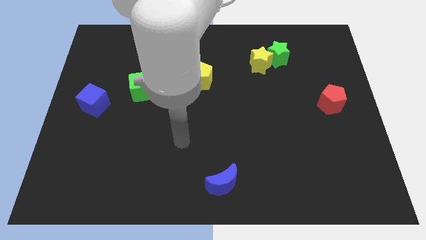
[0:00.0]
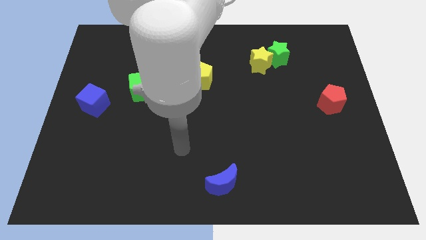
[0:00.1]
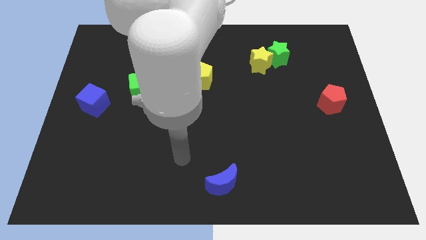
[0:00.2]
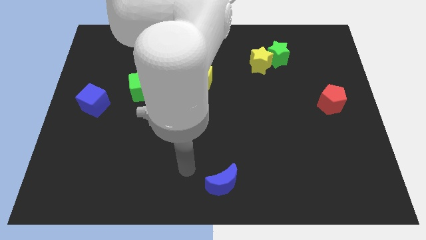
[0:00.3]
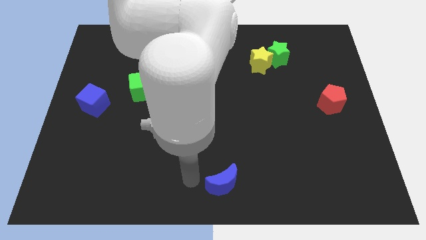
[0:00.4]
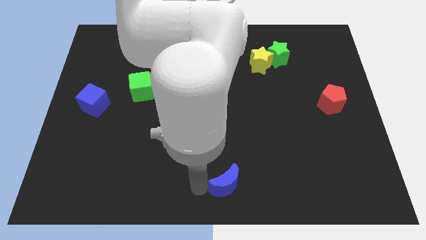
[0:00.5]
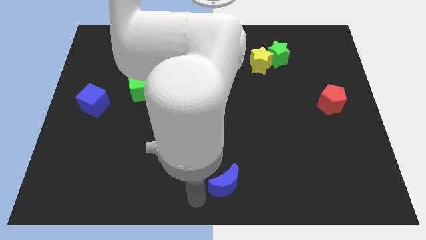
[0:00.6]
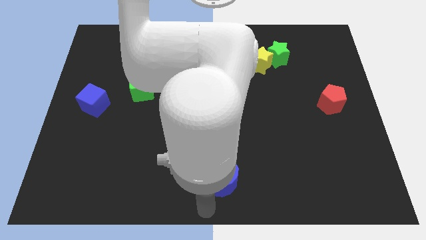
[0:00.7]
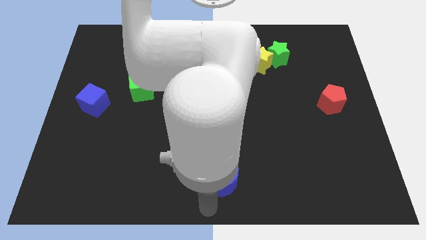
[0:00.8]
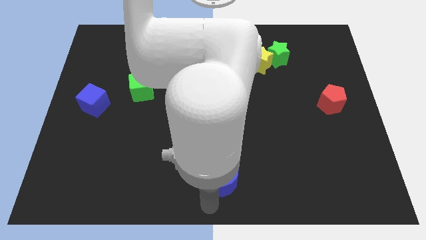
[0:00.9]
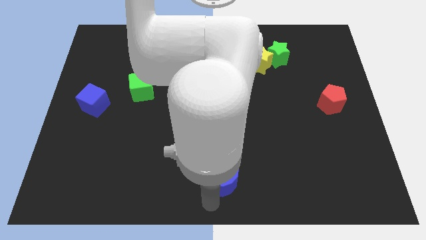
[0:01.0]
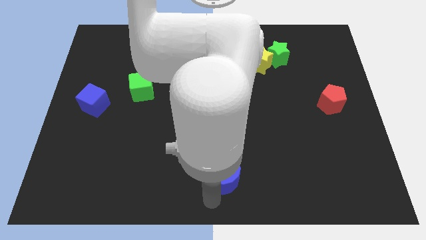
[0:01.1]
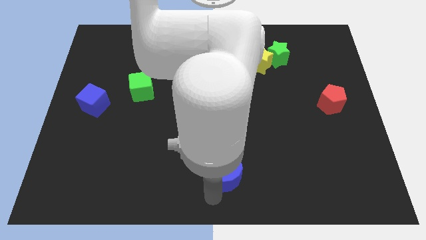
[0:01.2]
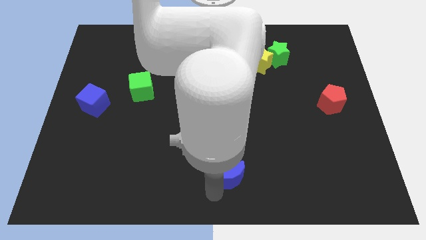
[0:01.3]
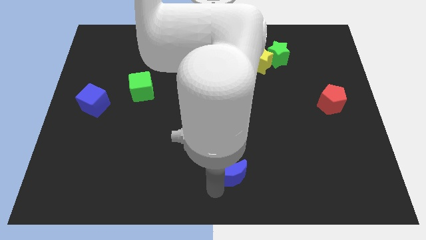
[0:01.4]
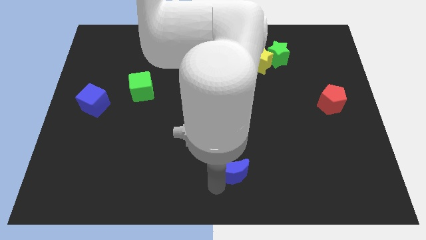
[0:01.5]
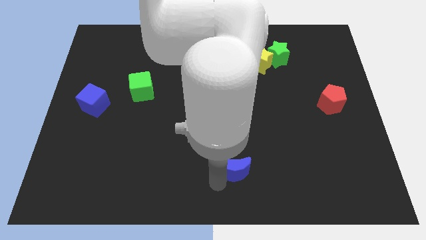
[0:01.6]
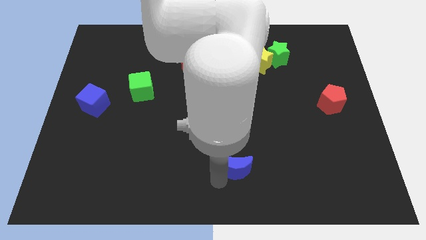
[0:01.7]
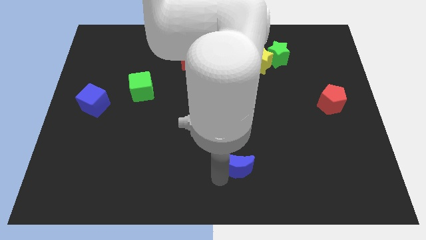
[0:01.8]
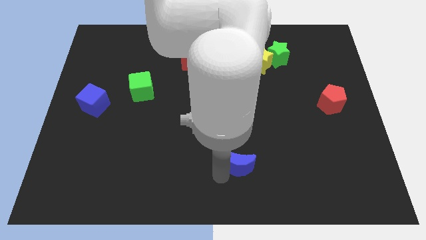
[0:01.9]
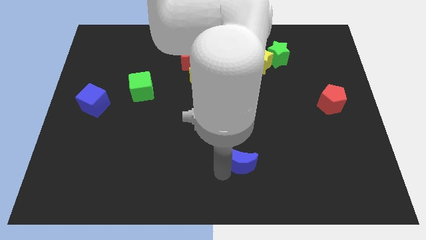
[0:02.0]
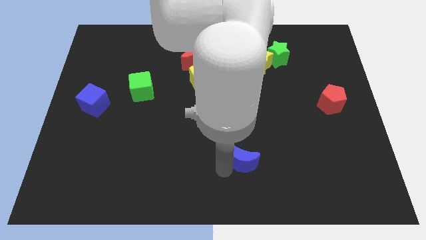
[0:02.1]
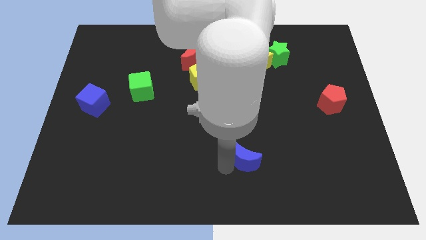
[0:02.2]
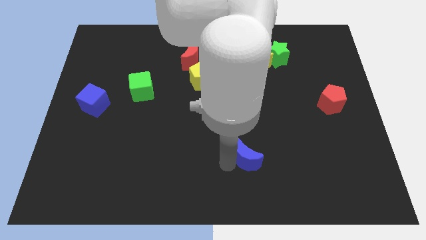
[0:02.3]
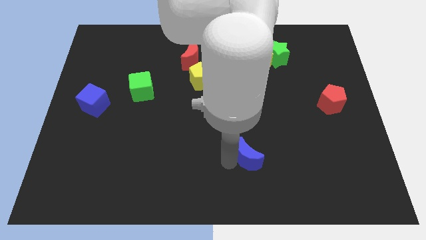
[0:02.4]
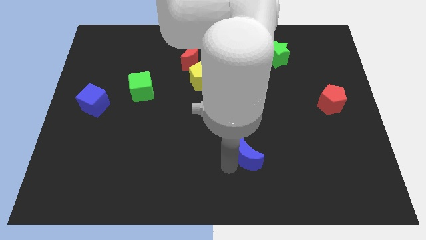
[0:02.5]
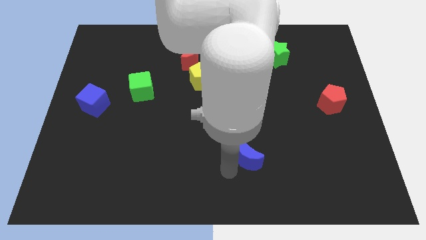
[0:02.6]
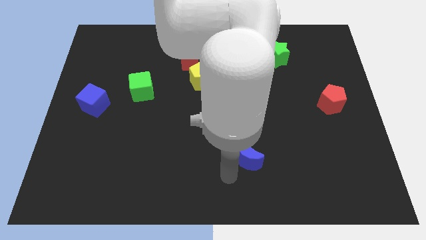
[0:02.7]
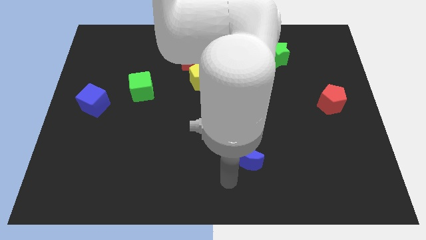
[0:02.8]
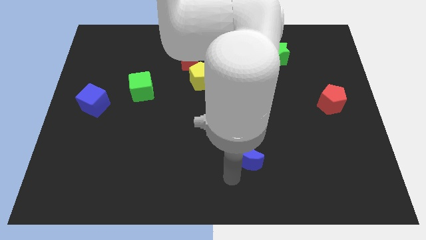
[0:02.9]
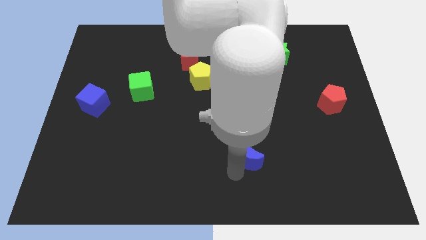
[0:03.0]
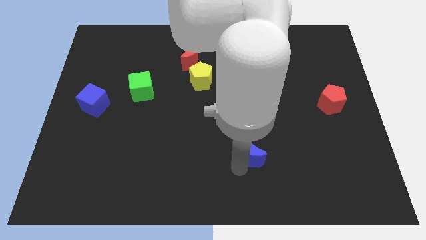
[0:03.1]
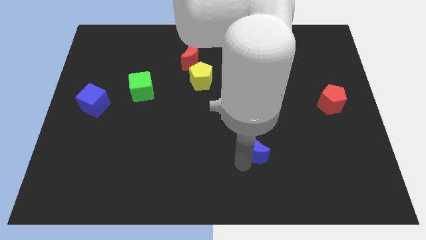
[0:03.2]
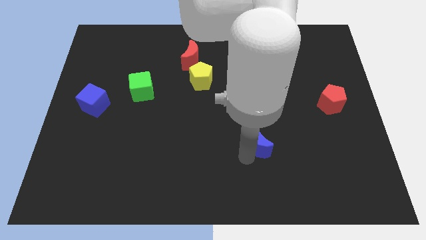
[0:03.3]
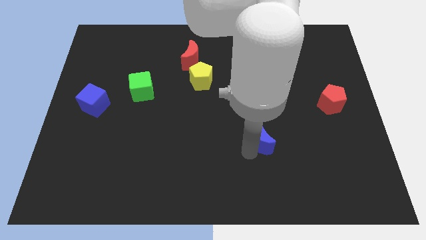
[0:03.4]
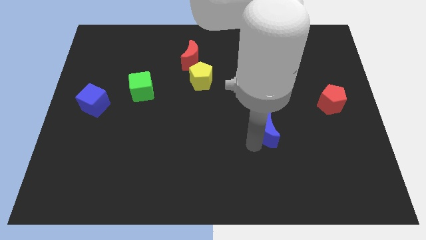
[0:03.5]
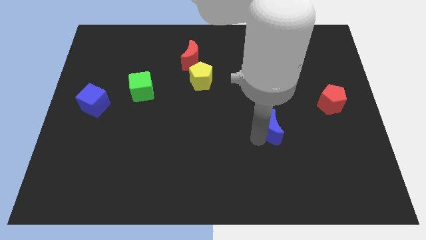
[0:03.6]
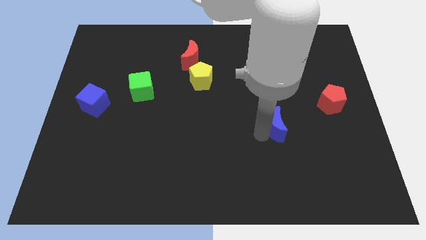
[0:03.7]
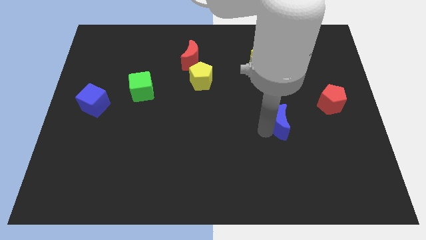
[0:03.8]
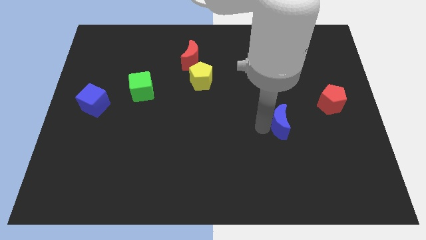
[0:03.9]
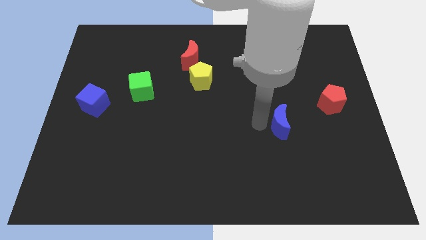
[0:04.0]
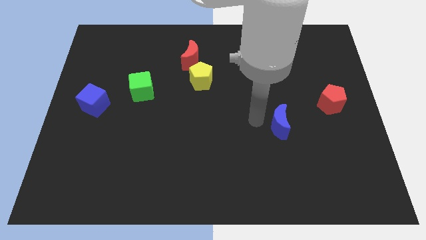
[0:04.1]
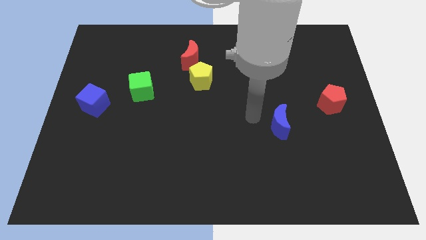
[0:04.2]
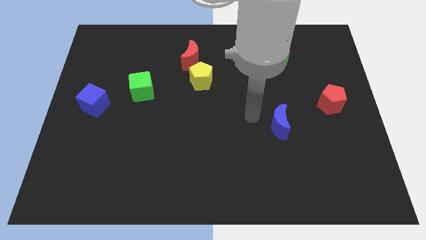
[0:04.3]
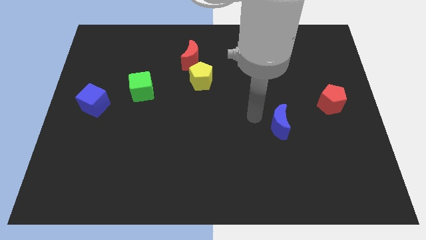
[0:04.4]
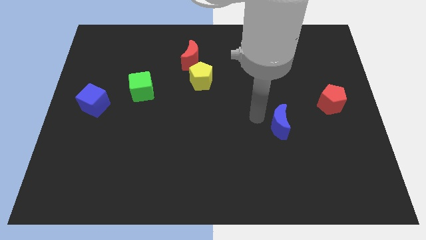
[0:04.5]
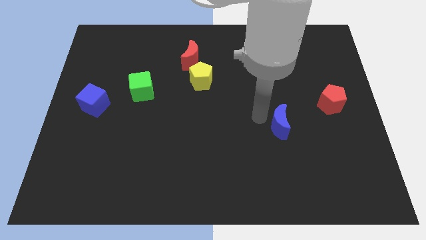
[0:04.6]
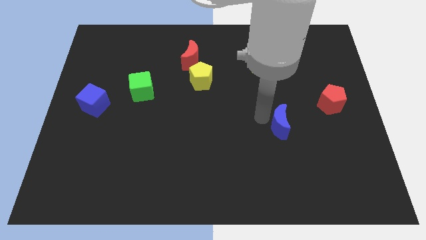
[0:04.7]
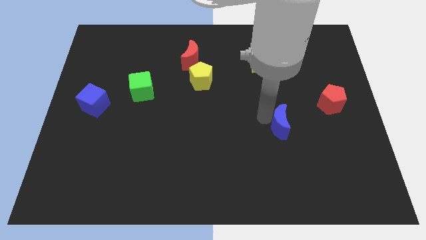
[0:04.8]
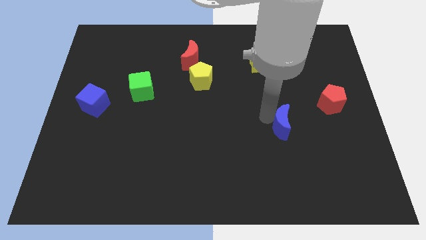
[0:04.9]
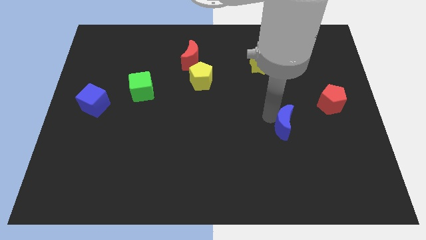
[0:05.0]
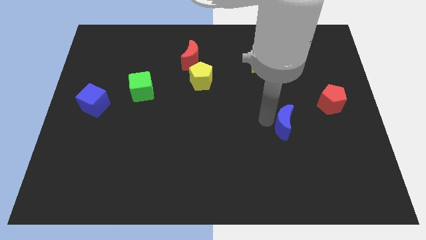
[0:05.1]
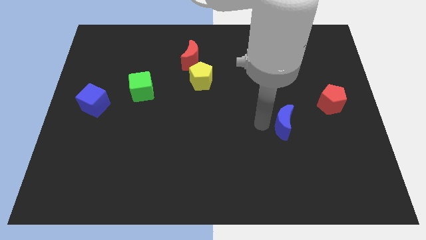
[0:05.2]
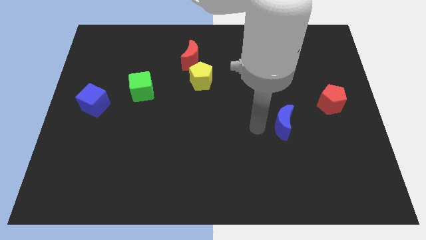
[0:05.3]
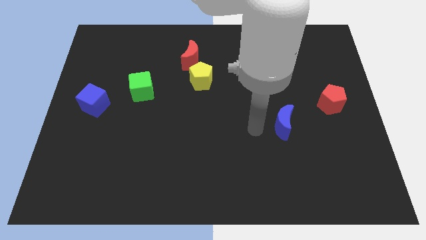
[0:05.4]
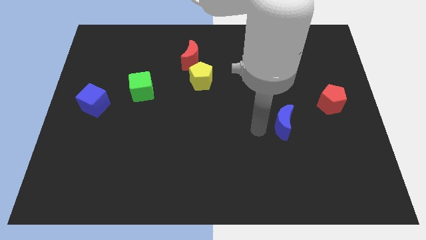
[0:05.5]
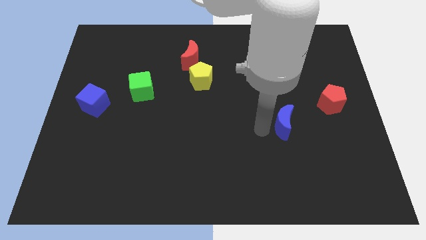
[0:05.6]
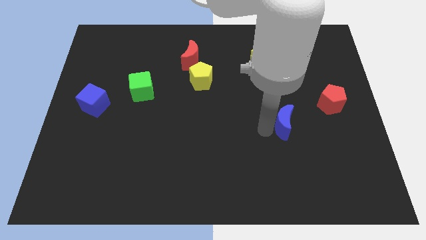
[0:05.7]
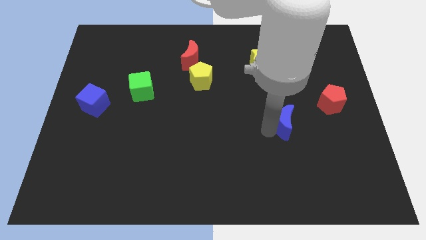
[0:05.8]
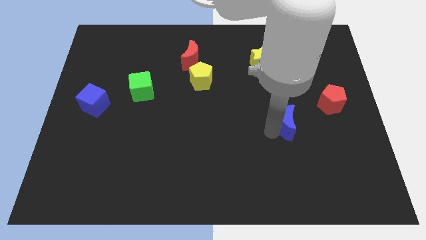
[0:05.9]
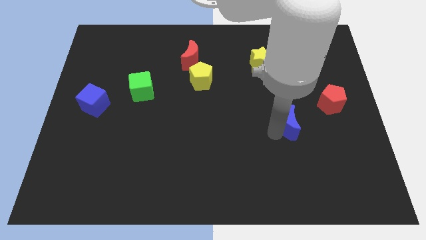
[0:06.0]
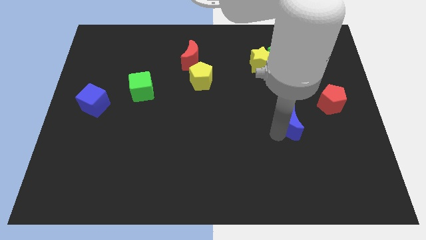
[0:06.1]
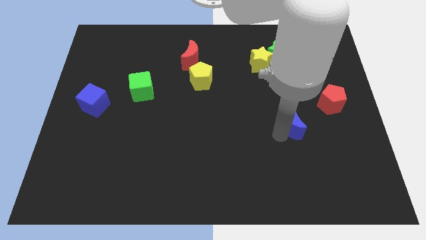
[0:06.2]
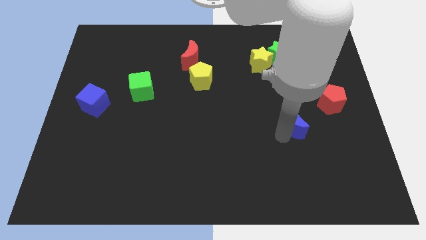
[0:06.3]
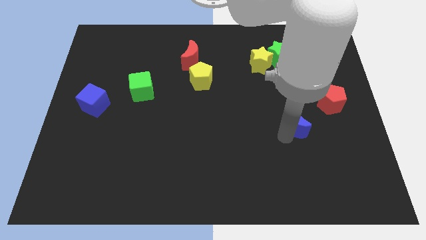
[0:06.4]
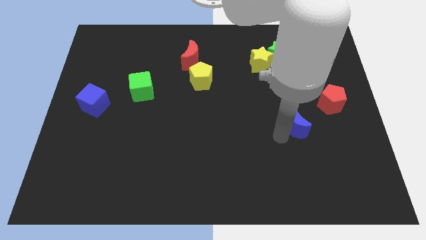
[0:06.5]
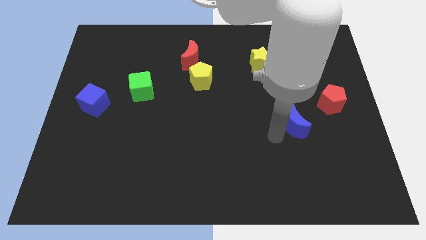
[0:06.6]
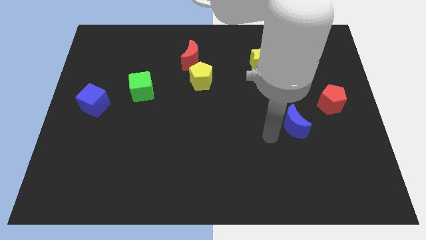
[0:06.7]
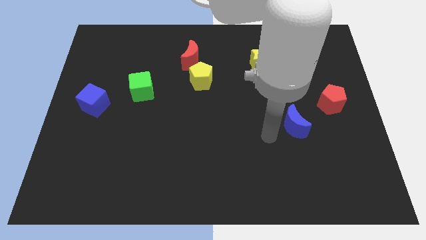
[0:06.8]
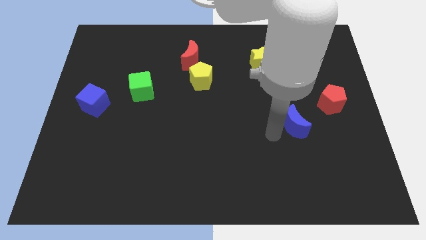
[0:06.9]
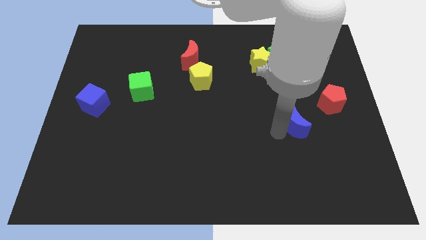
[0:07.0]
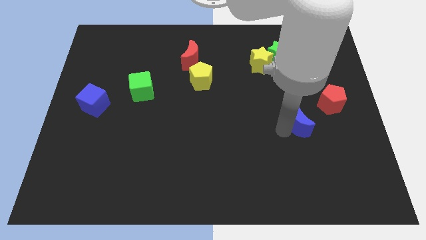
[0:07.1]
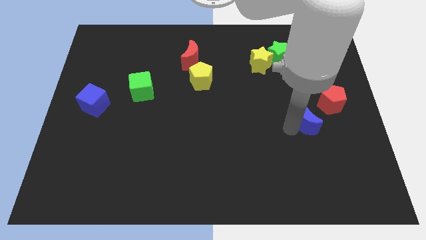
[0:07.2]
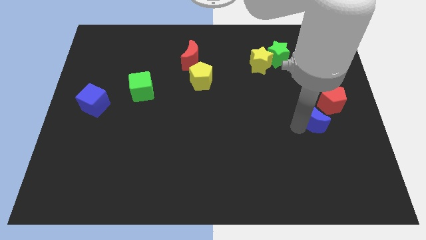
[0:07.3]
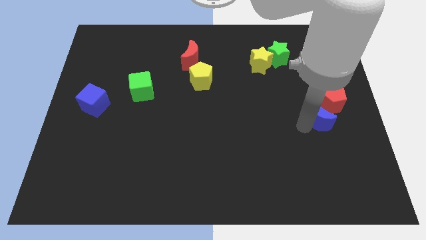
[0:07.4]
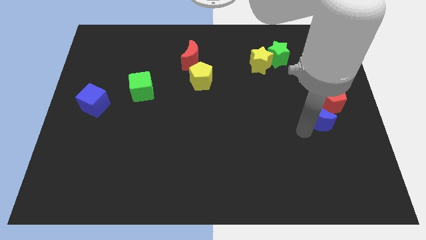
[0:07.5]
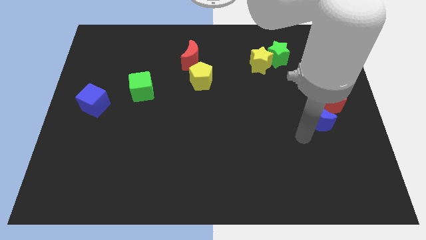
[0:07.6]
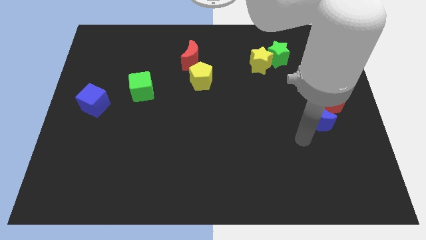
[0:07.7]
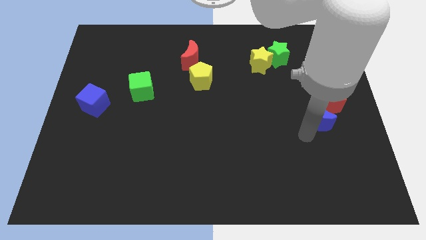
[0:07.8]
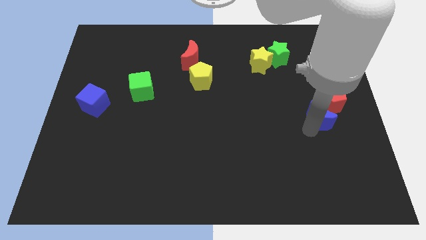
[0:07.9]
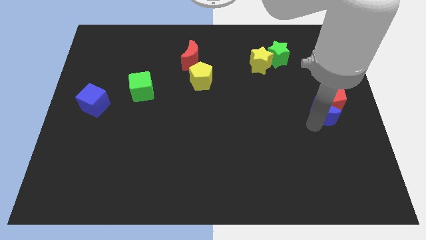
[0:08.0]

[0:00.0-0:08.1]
move the blue moon next to the red pentagon
